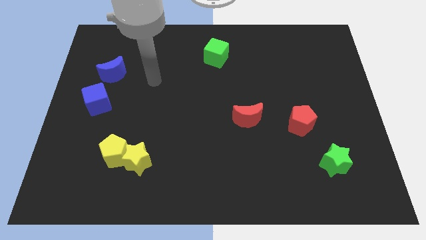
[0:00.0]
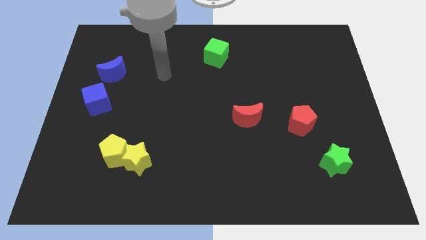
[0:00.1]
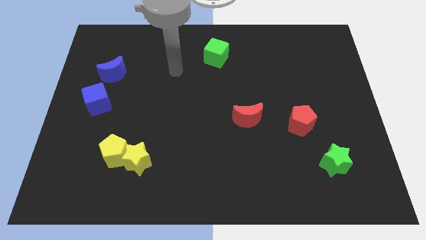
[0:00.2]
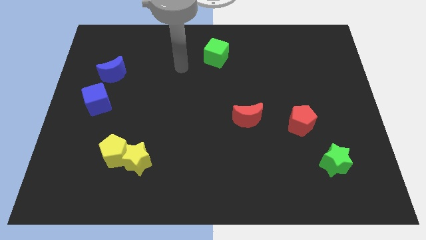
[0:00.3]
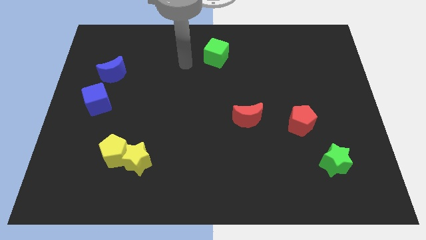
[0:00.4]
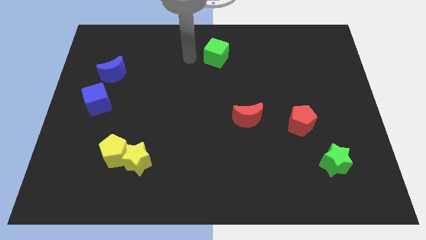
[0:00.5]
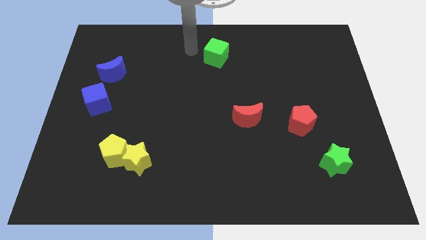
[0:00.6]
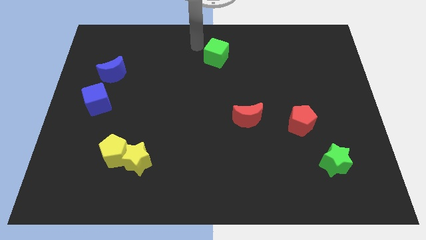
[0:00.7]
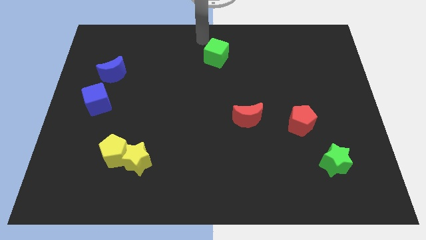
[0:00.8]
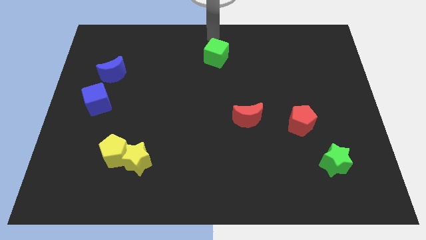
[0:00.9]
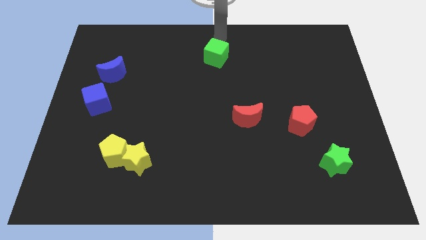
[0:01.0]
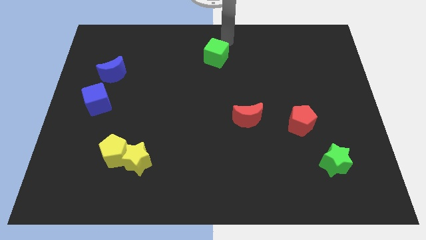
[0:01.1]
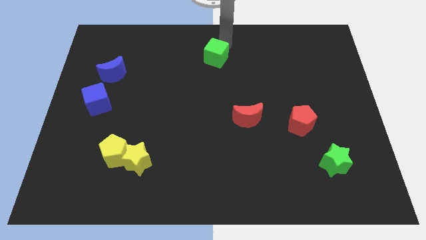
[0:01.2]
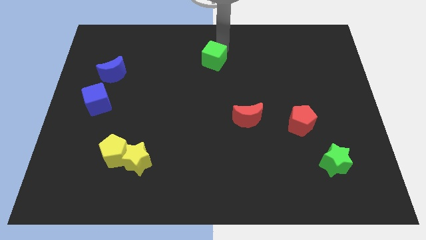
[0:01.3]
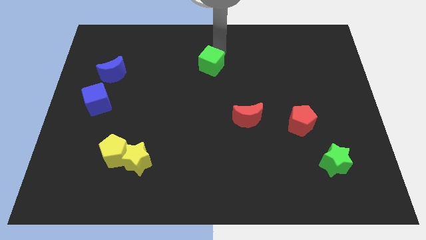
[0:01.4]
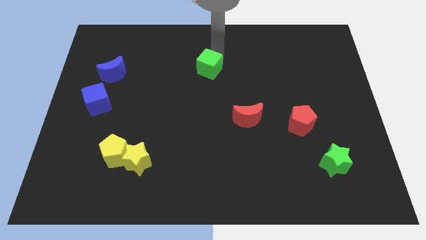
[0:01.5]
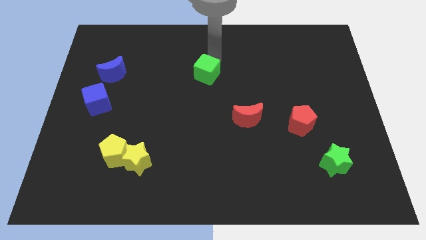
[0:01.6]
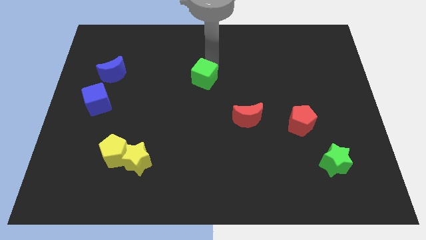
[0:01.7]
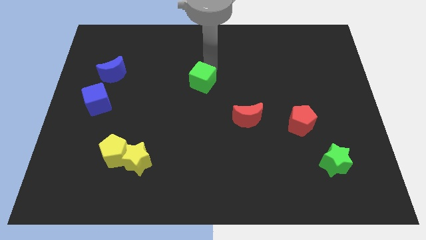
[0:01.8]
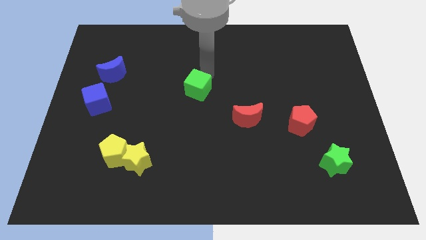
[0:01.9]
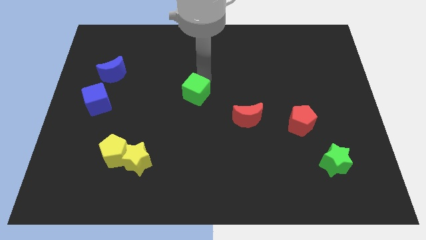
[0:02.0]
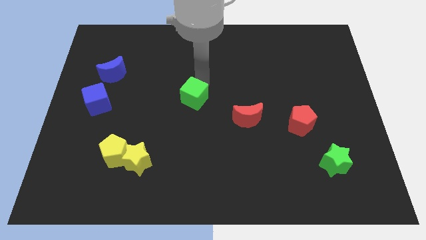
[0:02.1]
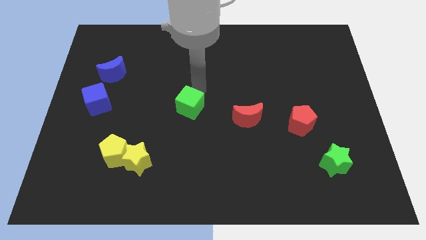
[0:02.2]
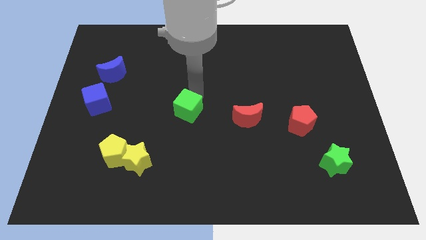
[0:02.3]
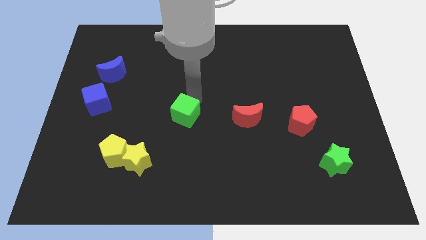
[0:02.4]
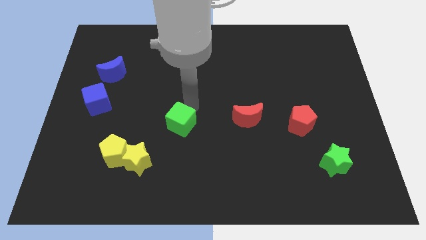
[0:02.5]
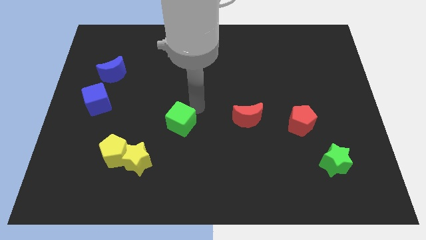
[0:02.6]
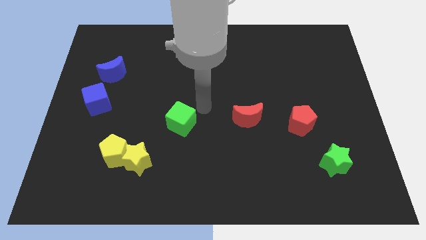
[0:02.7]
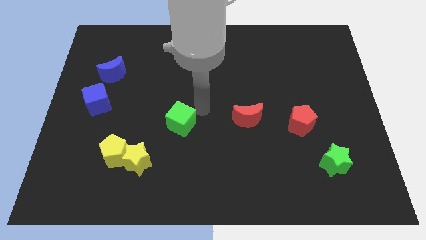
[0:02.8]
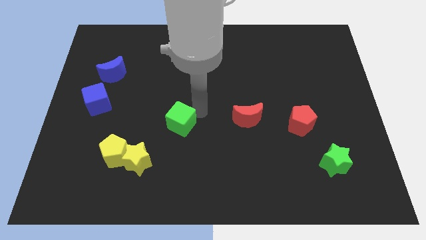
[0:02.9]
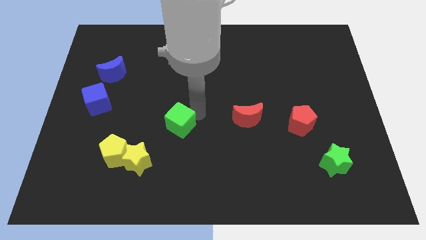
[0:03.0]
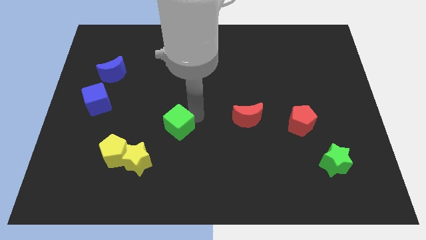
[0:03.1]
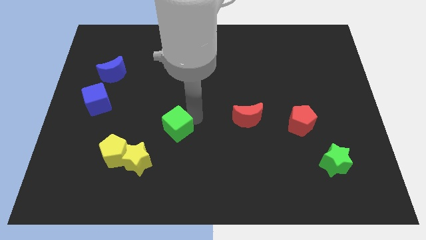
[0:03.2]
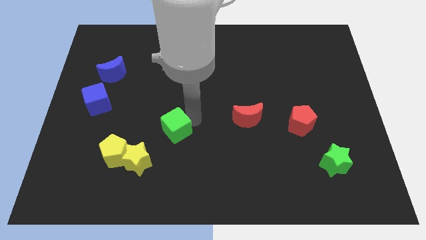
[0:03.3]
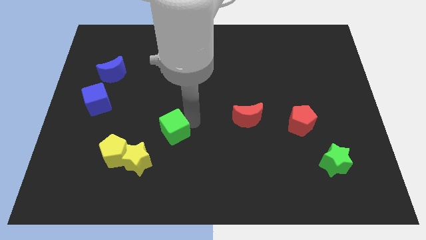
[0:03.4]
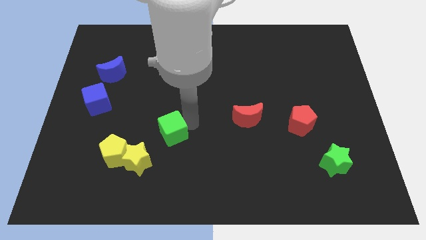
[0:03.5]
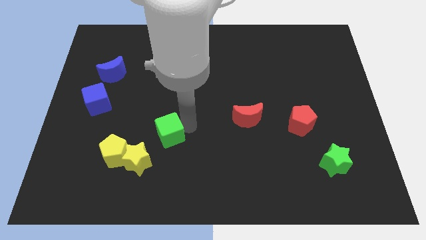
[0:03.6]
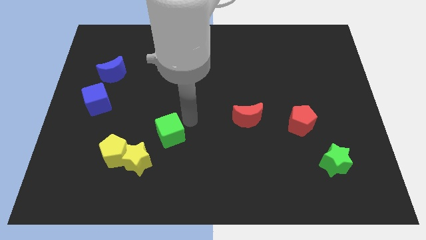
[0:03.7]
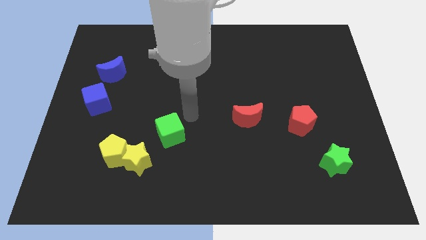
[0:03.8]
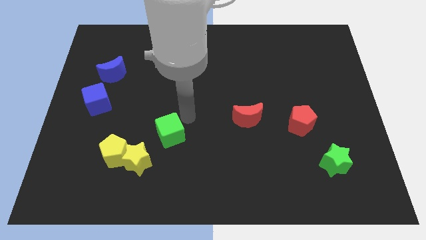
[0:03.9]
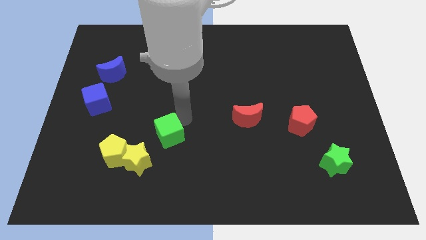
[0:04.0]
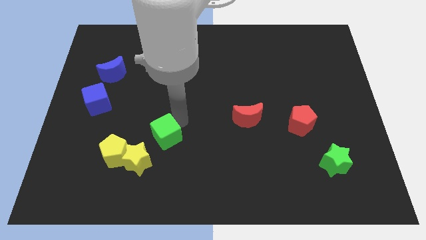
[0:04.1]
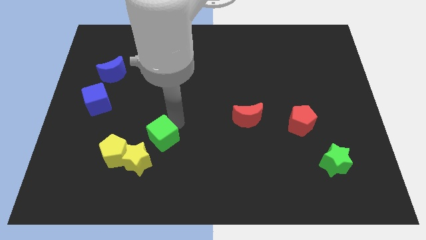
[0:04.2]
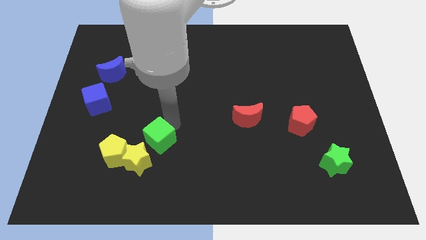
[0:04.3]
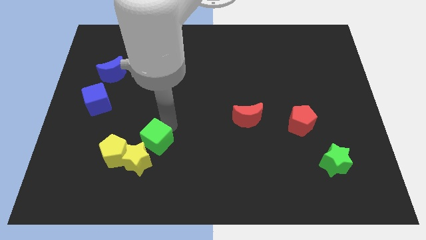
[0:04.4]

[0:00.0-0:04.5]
put the green cube close to the yellow star

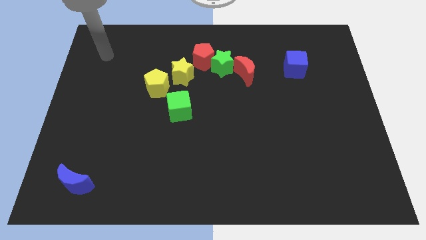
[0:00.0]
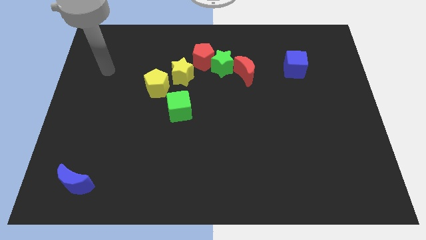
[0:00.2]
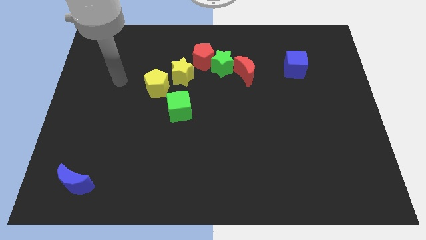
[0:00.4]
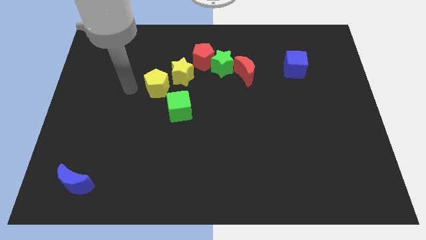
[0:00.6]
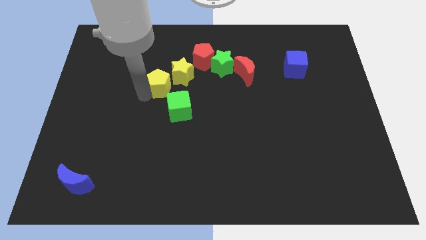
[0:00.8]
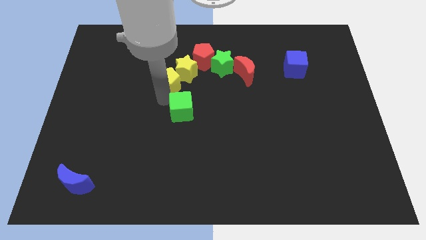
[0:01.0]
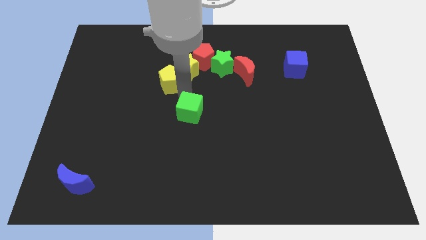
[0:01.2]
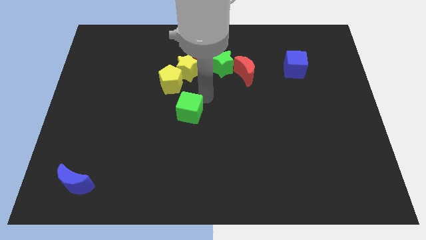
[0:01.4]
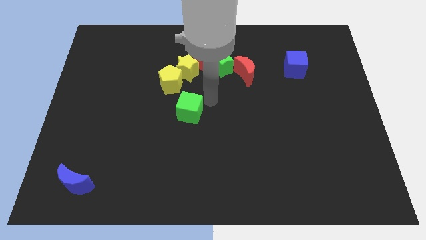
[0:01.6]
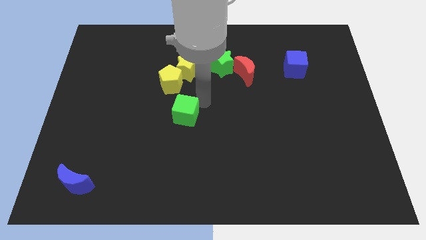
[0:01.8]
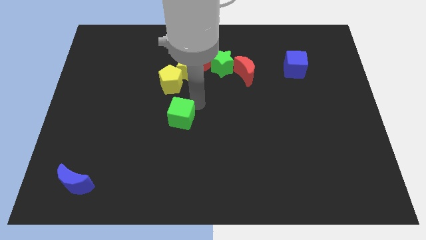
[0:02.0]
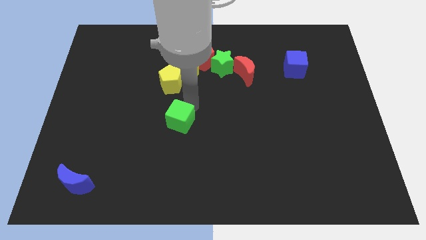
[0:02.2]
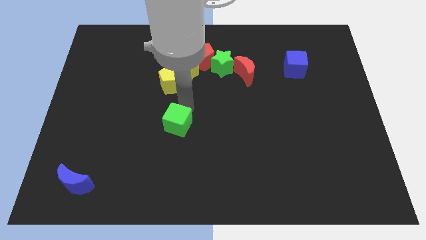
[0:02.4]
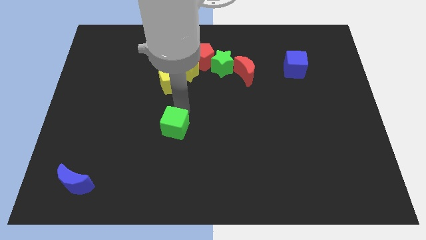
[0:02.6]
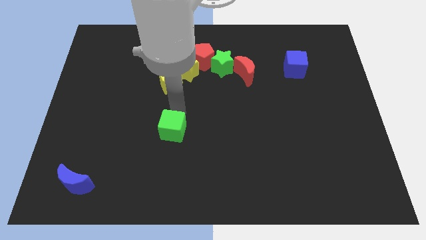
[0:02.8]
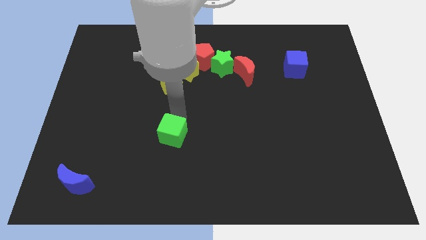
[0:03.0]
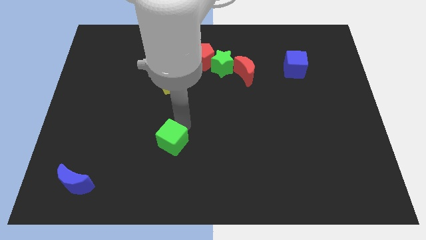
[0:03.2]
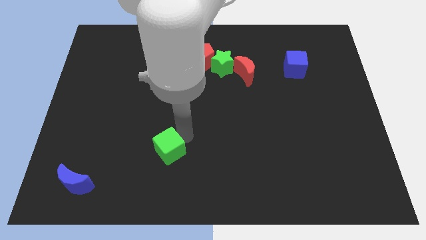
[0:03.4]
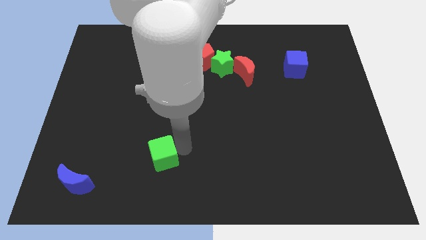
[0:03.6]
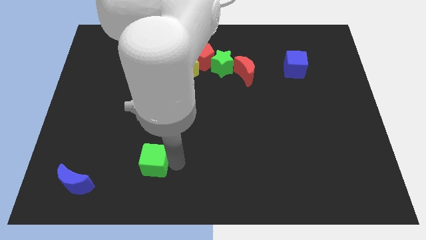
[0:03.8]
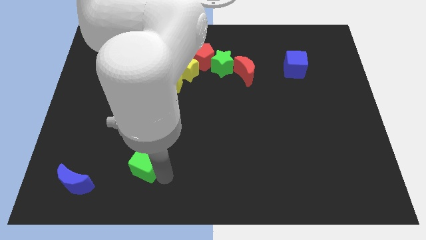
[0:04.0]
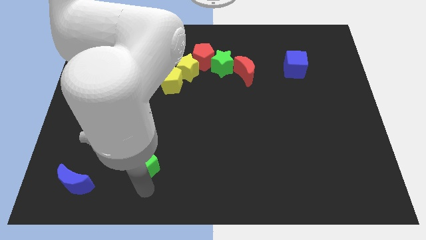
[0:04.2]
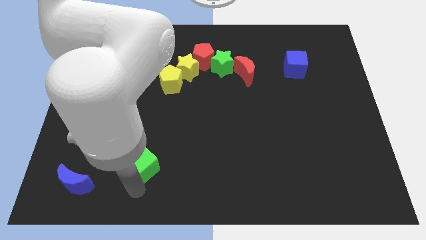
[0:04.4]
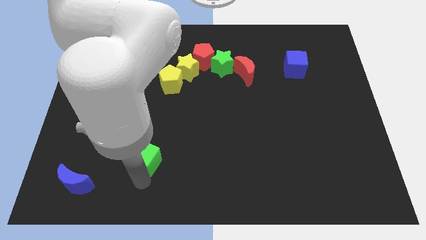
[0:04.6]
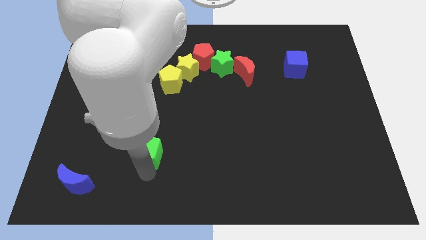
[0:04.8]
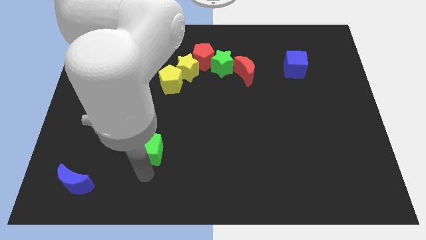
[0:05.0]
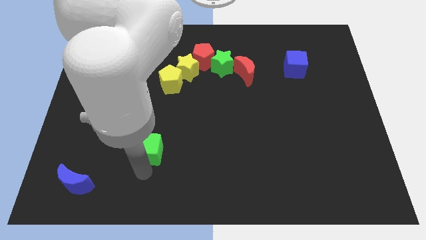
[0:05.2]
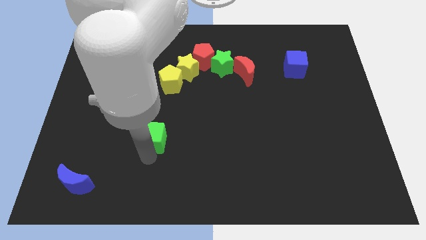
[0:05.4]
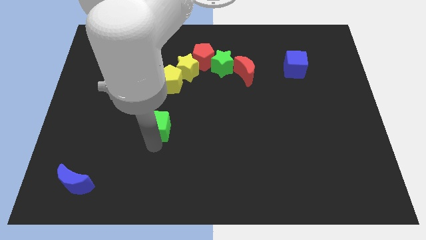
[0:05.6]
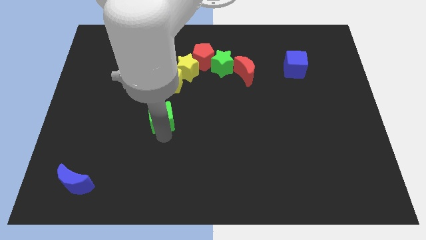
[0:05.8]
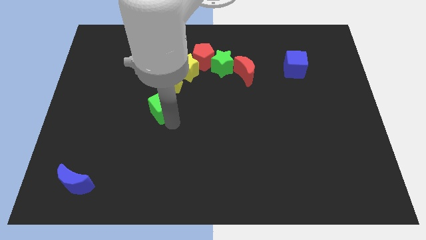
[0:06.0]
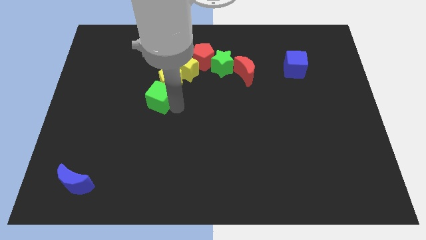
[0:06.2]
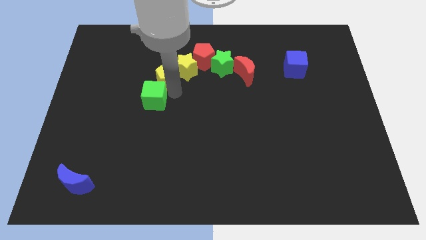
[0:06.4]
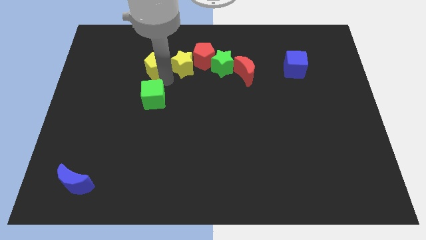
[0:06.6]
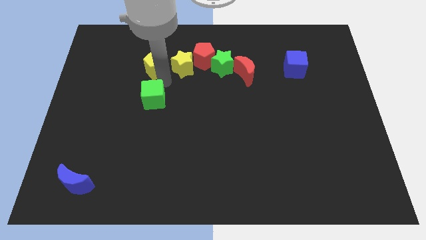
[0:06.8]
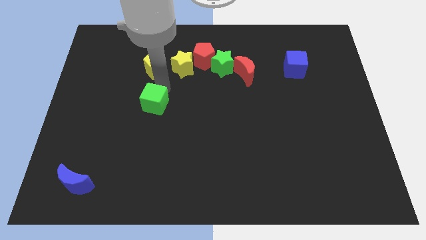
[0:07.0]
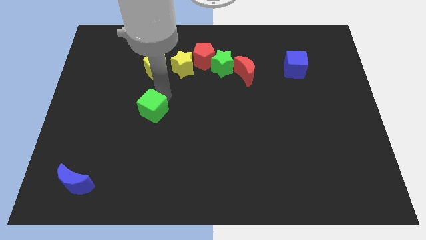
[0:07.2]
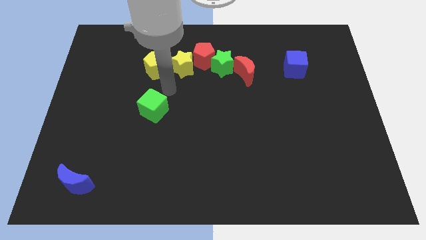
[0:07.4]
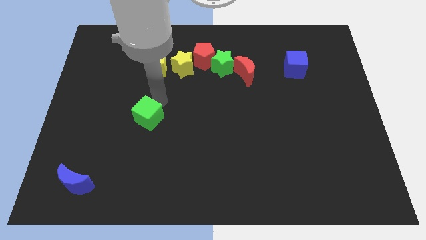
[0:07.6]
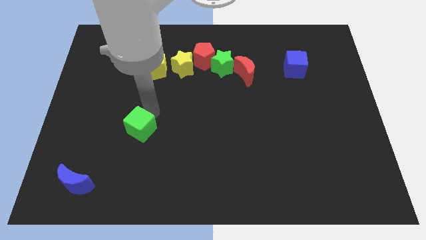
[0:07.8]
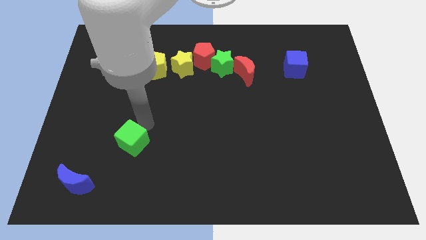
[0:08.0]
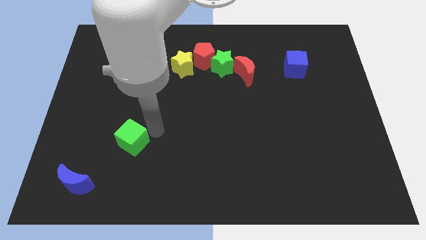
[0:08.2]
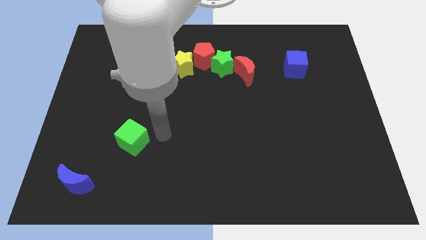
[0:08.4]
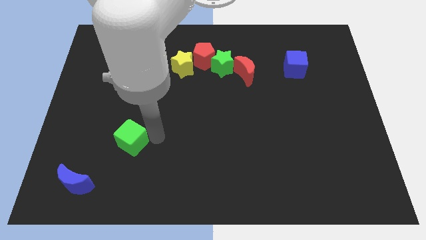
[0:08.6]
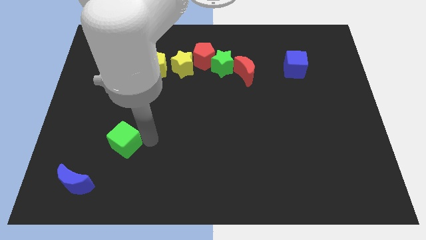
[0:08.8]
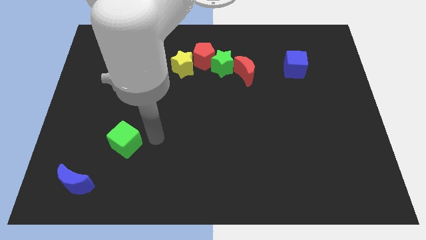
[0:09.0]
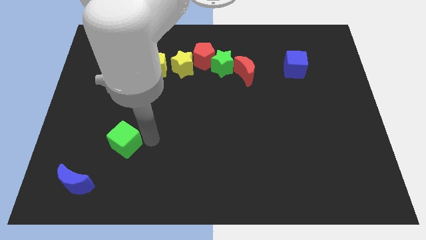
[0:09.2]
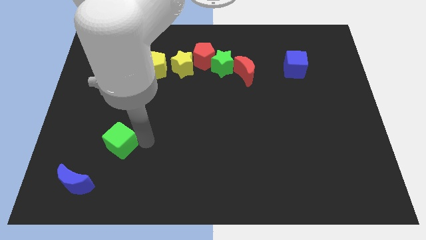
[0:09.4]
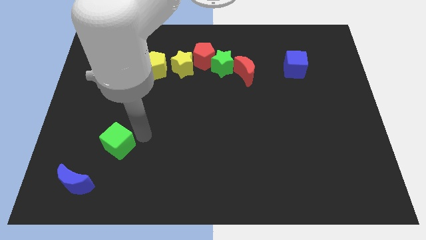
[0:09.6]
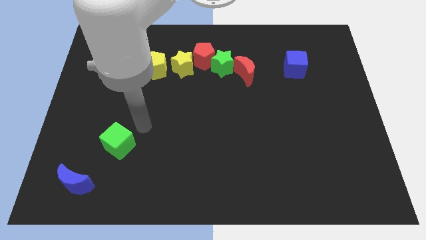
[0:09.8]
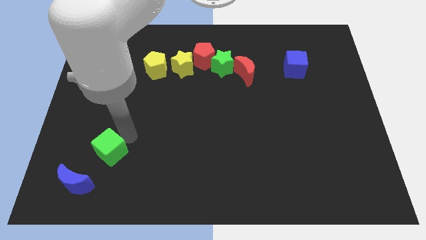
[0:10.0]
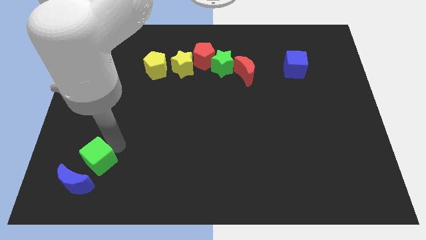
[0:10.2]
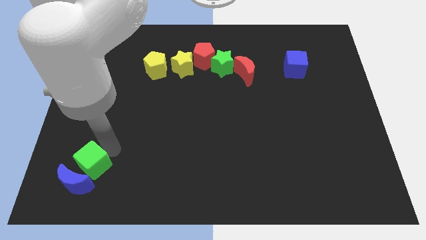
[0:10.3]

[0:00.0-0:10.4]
slide the green cube towards the blue moon
